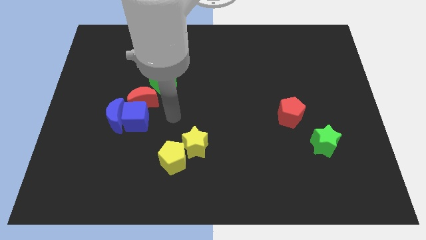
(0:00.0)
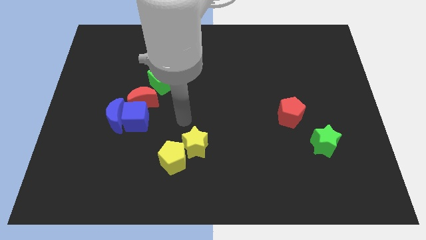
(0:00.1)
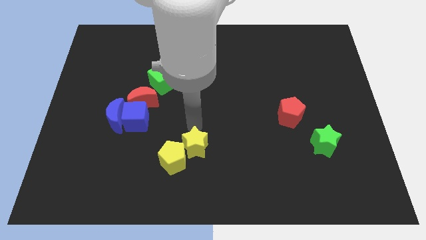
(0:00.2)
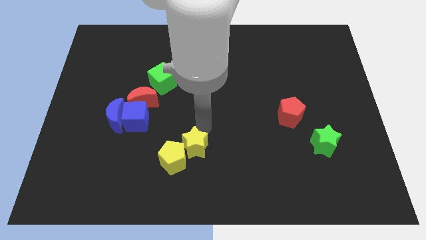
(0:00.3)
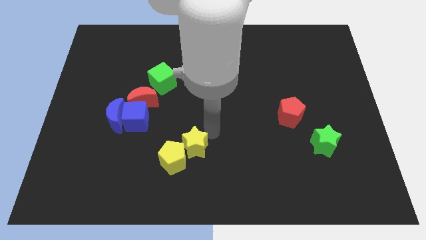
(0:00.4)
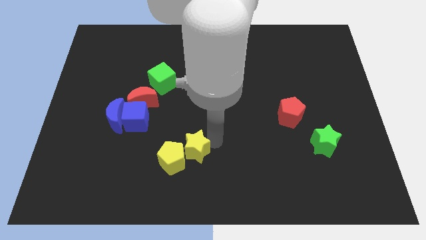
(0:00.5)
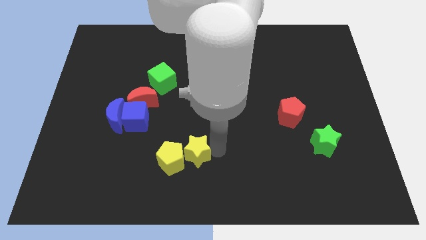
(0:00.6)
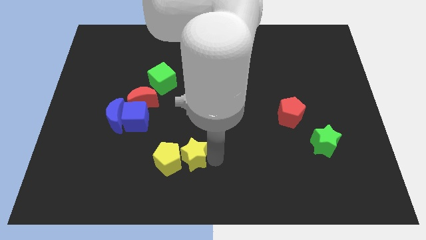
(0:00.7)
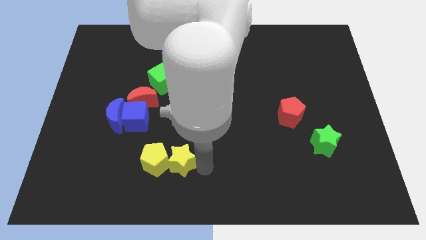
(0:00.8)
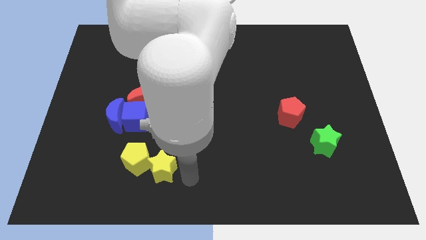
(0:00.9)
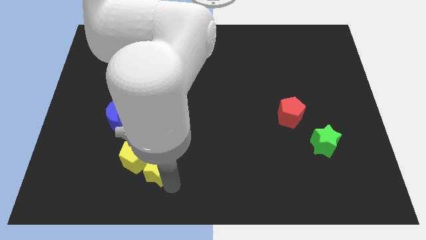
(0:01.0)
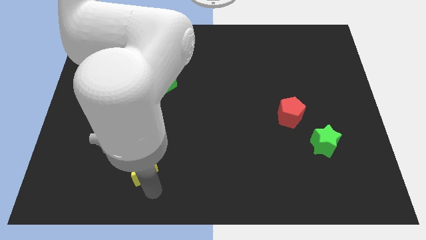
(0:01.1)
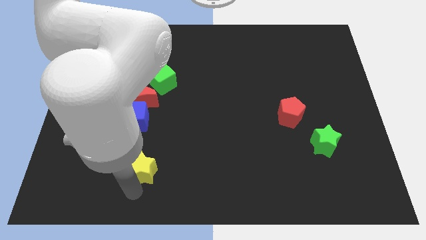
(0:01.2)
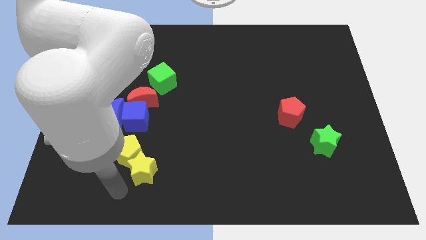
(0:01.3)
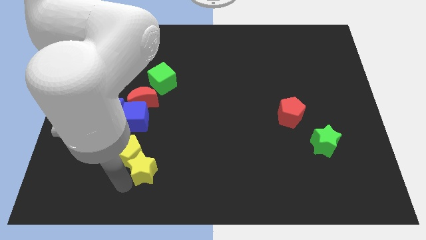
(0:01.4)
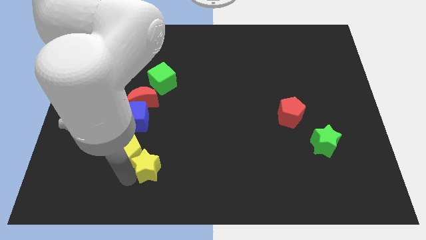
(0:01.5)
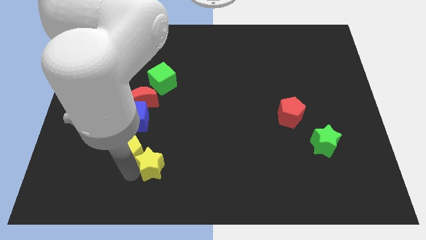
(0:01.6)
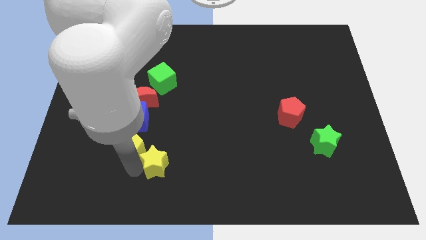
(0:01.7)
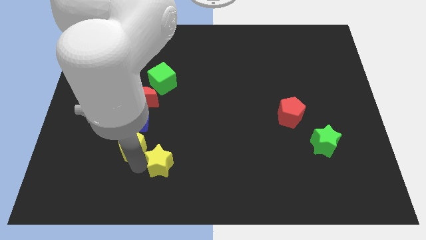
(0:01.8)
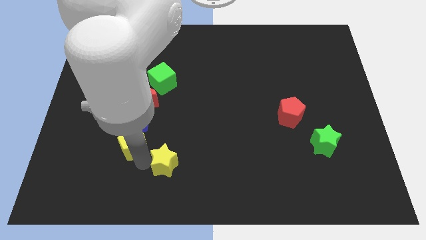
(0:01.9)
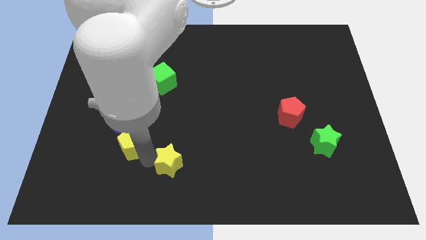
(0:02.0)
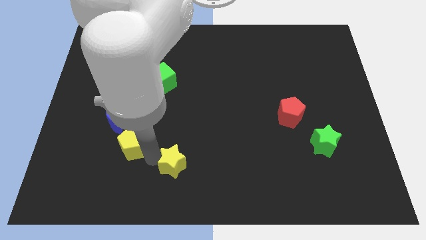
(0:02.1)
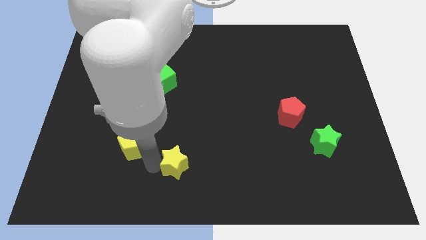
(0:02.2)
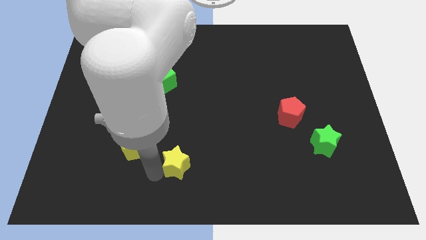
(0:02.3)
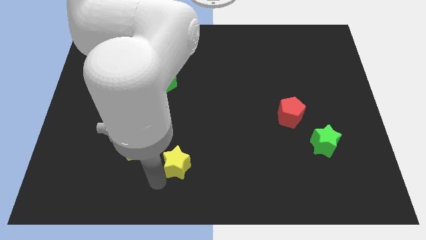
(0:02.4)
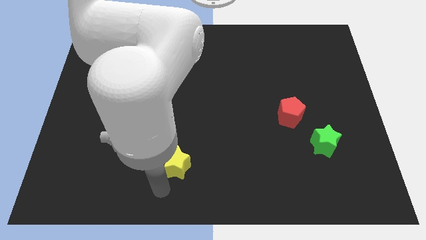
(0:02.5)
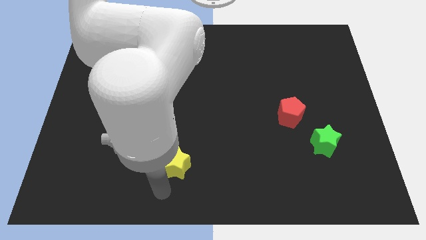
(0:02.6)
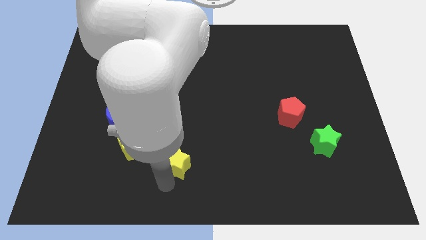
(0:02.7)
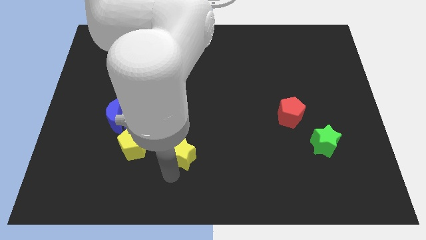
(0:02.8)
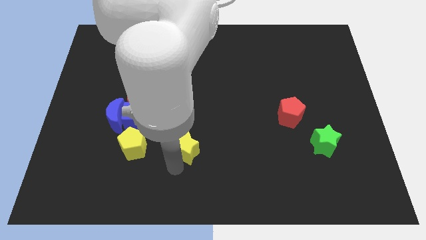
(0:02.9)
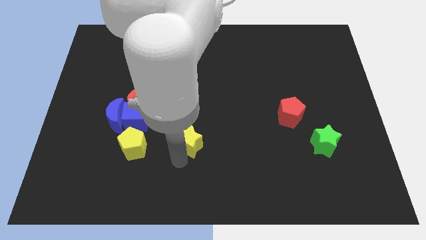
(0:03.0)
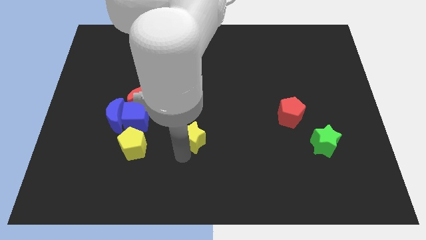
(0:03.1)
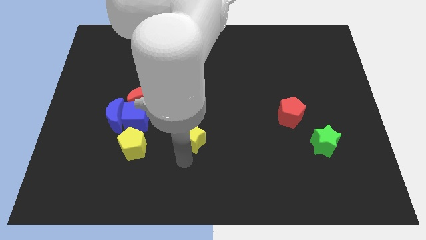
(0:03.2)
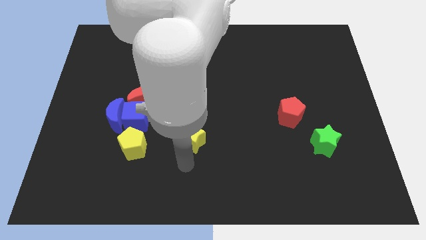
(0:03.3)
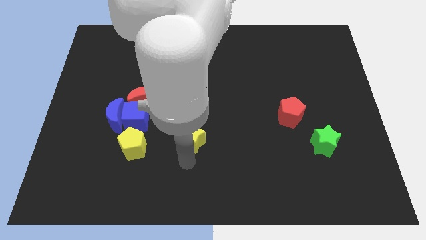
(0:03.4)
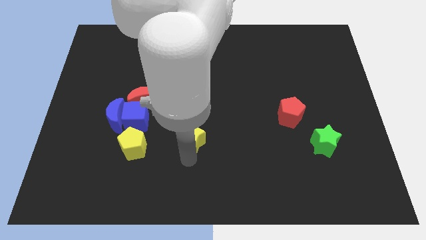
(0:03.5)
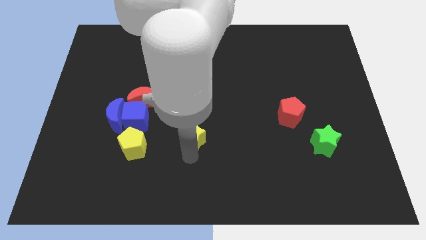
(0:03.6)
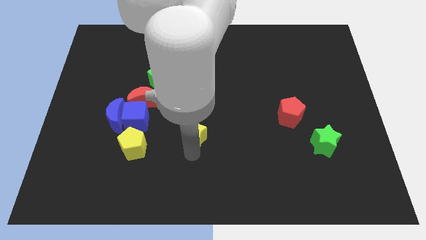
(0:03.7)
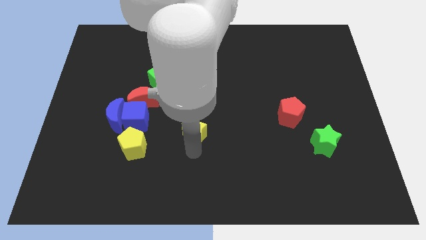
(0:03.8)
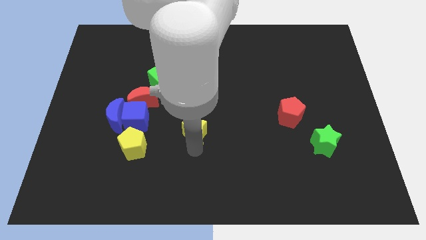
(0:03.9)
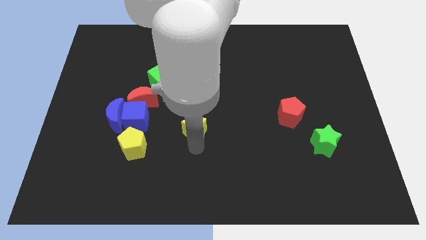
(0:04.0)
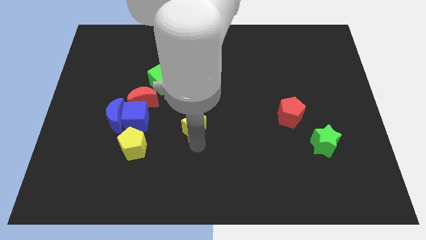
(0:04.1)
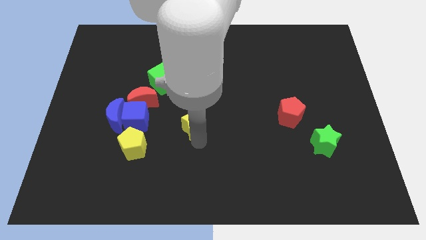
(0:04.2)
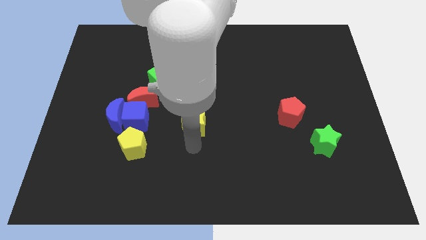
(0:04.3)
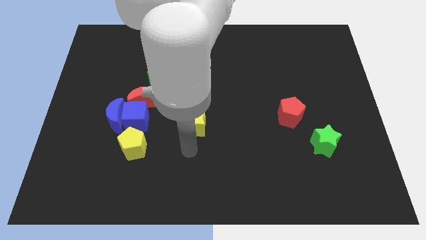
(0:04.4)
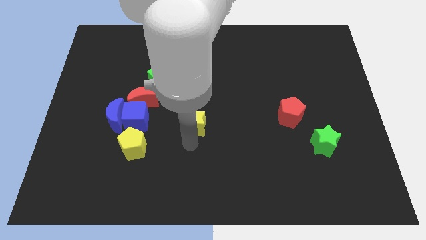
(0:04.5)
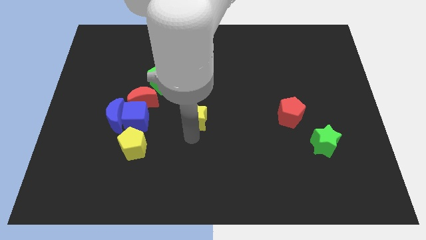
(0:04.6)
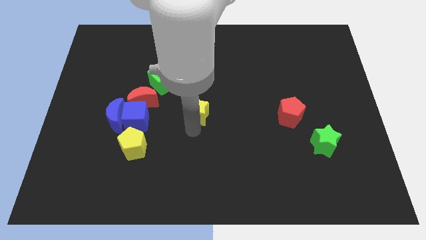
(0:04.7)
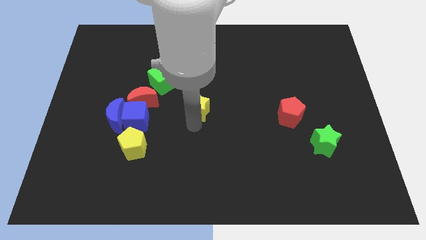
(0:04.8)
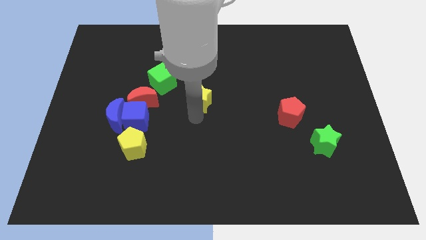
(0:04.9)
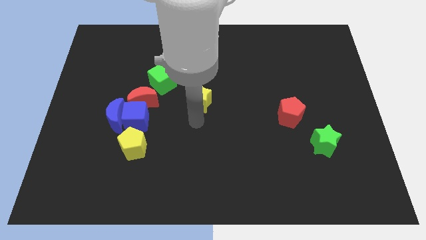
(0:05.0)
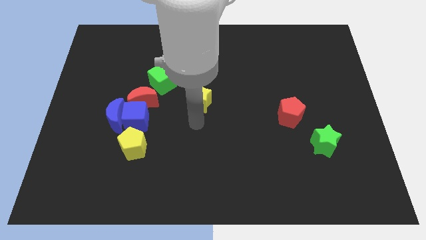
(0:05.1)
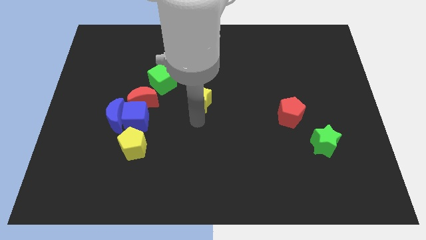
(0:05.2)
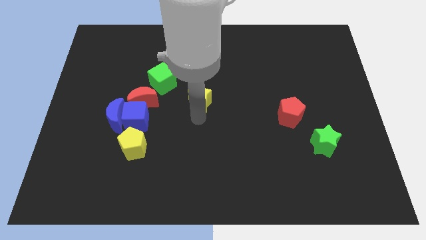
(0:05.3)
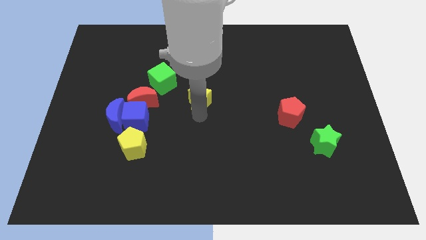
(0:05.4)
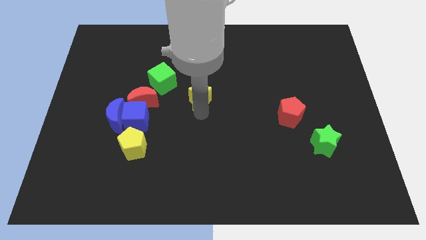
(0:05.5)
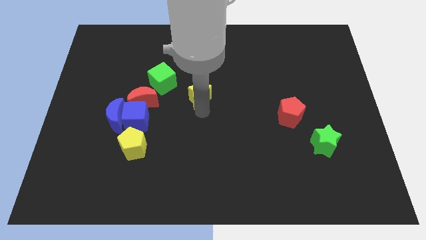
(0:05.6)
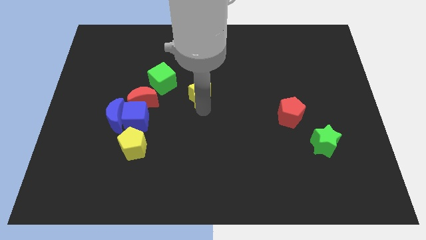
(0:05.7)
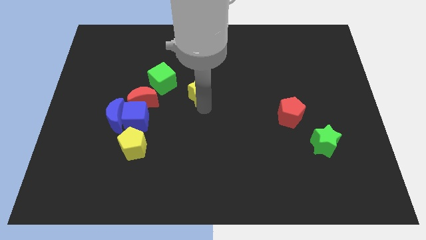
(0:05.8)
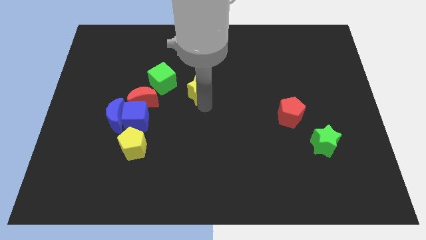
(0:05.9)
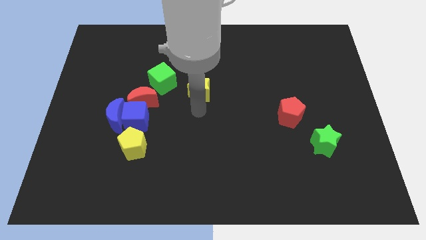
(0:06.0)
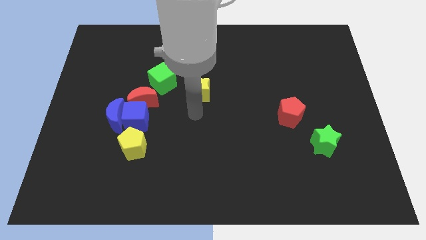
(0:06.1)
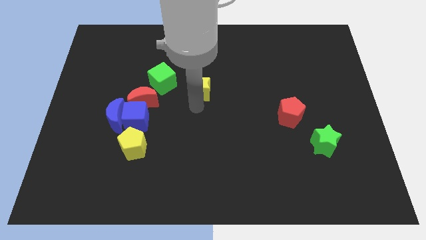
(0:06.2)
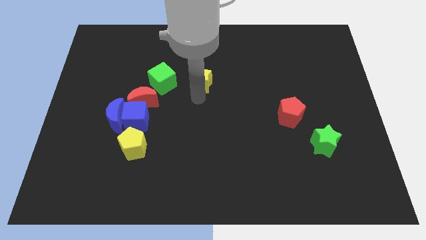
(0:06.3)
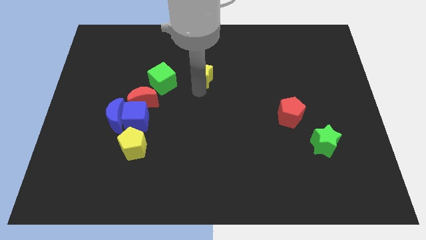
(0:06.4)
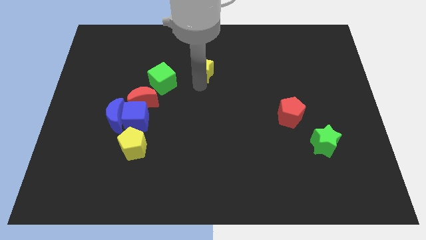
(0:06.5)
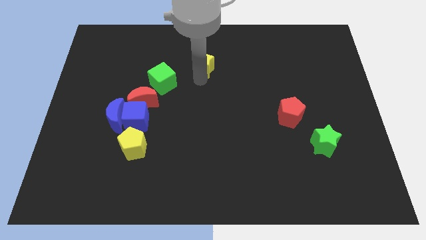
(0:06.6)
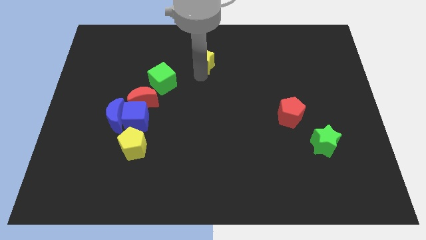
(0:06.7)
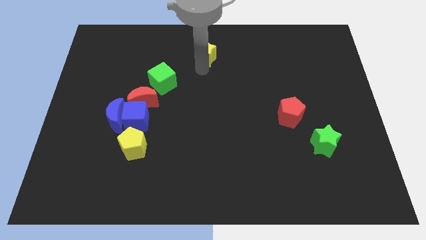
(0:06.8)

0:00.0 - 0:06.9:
push the yellow star to the top
